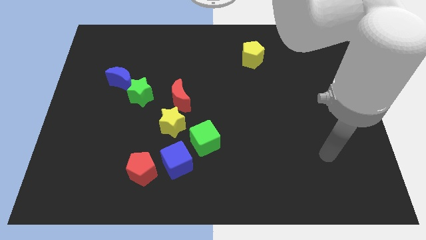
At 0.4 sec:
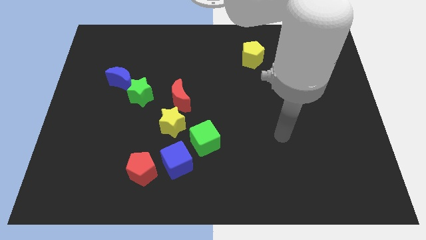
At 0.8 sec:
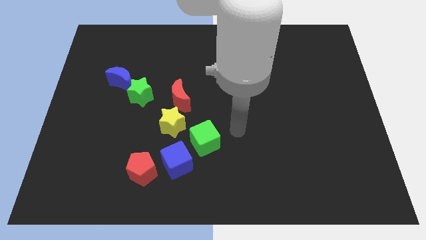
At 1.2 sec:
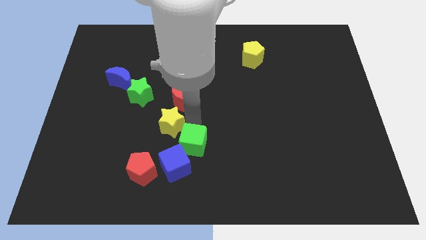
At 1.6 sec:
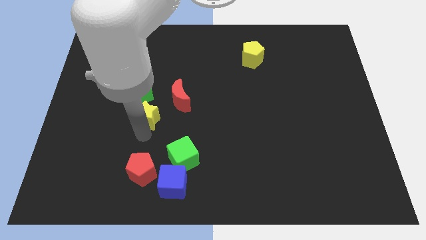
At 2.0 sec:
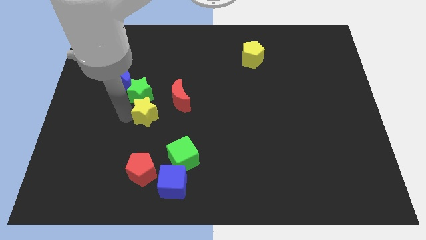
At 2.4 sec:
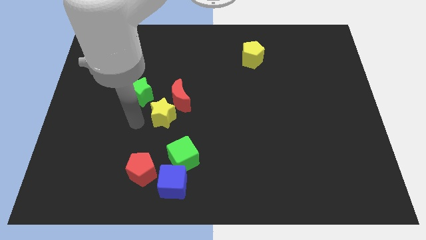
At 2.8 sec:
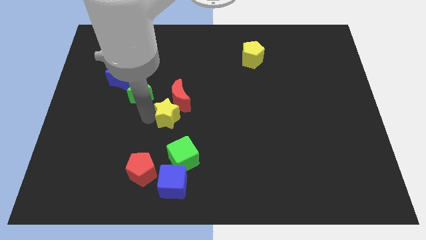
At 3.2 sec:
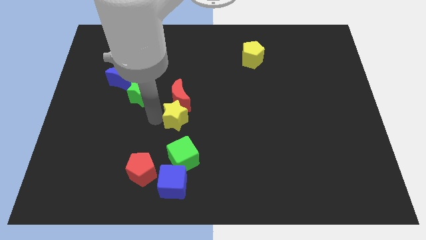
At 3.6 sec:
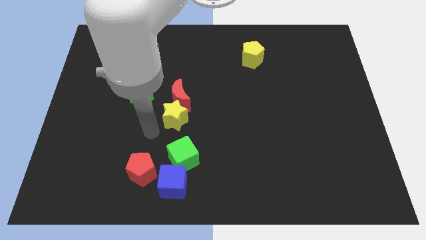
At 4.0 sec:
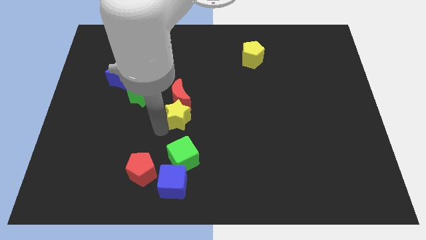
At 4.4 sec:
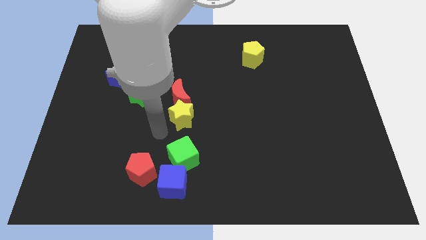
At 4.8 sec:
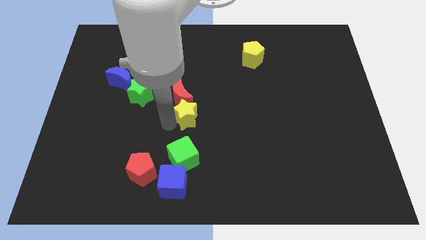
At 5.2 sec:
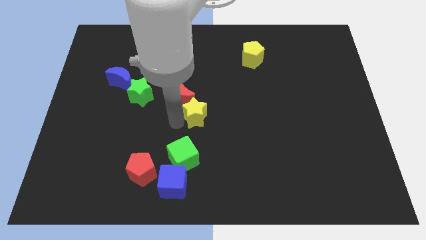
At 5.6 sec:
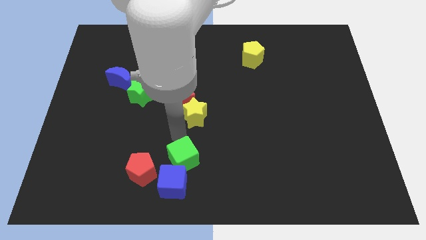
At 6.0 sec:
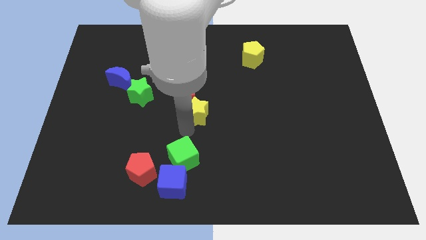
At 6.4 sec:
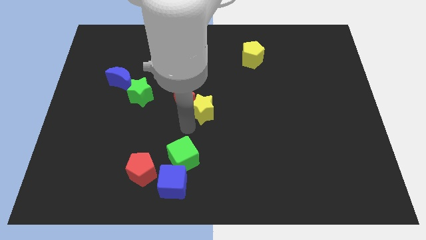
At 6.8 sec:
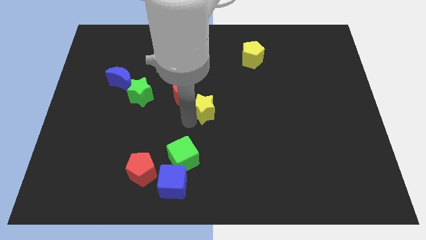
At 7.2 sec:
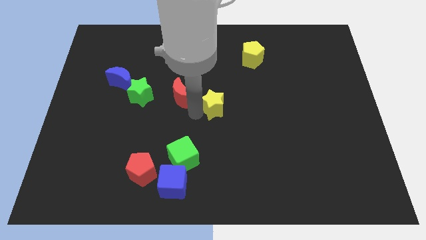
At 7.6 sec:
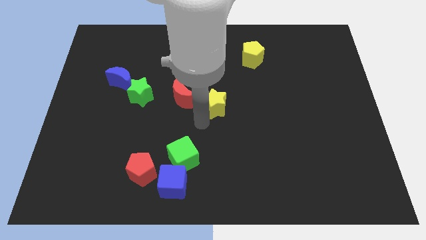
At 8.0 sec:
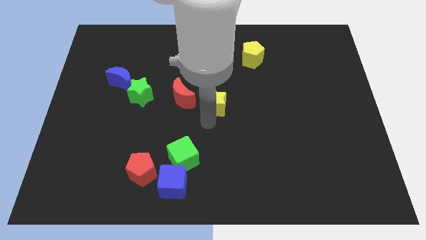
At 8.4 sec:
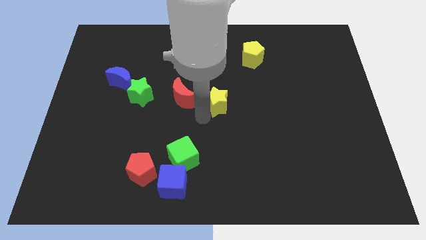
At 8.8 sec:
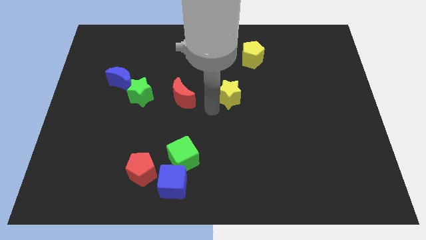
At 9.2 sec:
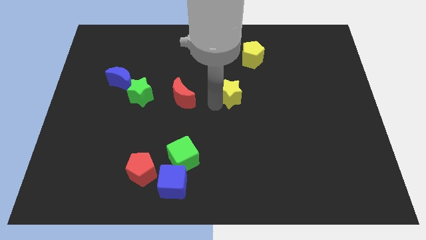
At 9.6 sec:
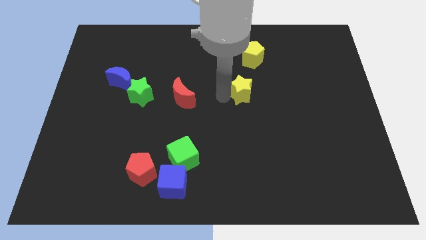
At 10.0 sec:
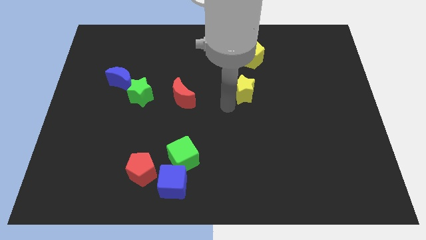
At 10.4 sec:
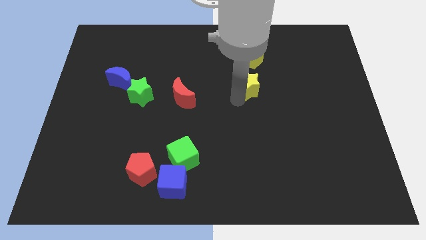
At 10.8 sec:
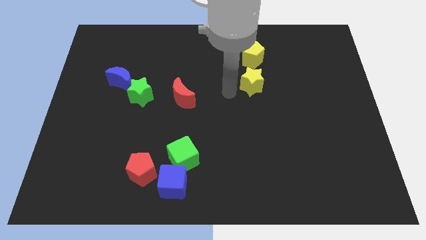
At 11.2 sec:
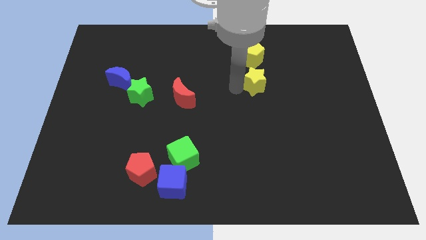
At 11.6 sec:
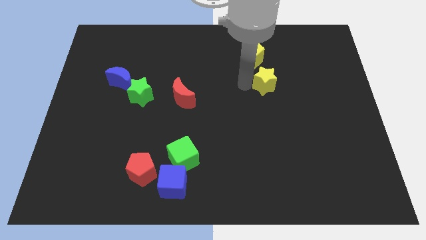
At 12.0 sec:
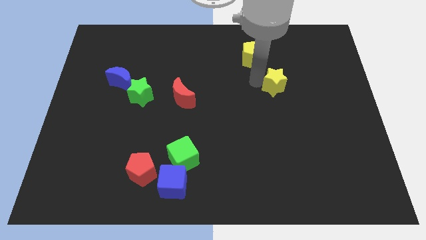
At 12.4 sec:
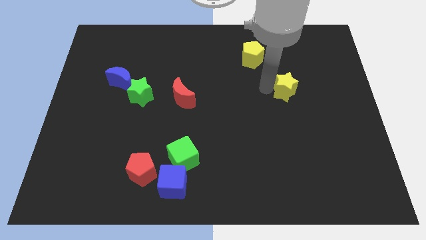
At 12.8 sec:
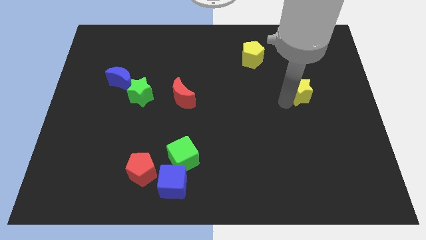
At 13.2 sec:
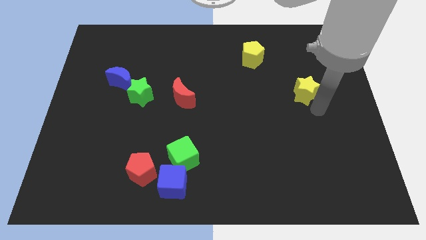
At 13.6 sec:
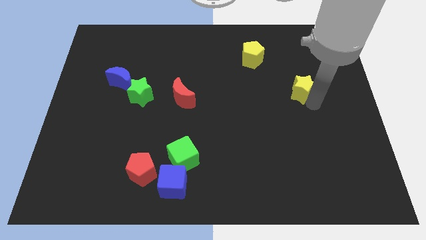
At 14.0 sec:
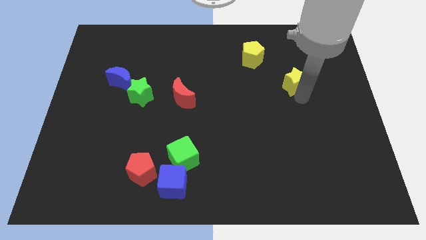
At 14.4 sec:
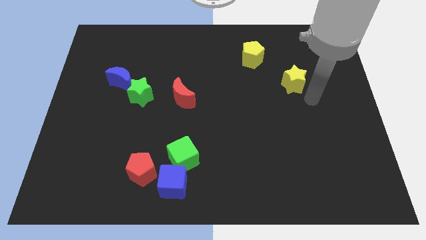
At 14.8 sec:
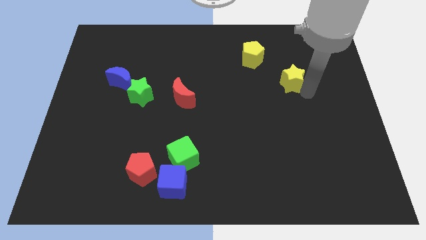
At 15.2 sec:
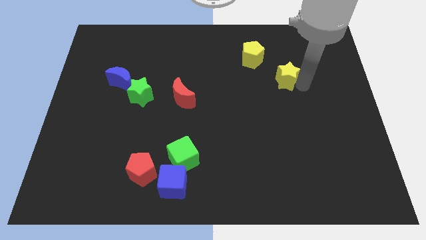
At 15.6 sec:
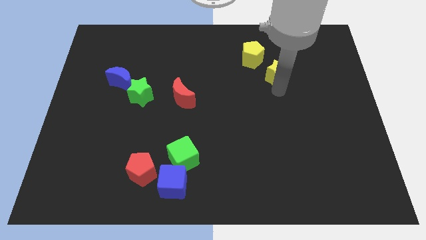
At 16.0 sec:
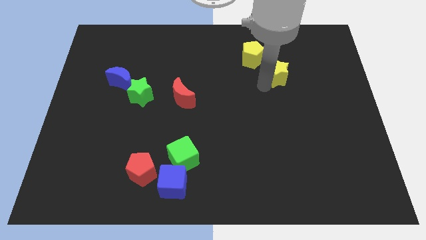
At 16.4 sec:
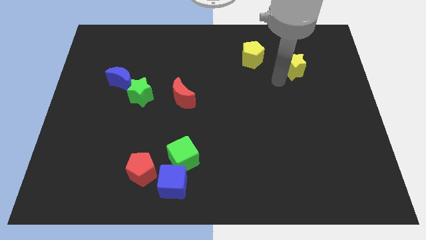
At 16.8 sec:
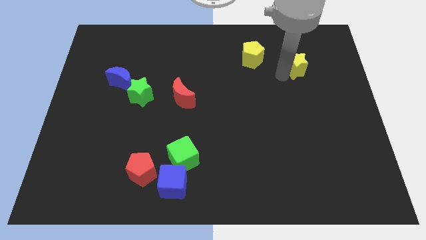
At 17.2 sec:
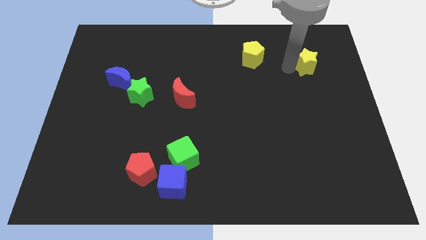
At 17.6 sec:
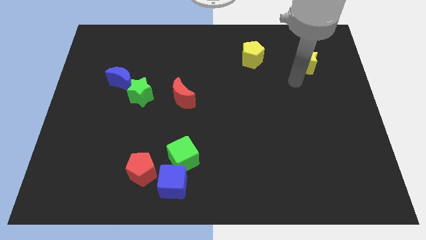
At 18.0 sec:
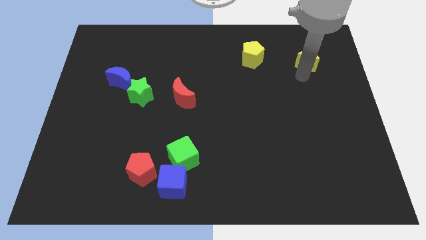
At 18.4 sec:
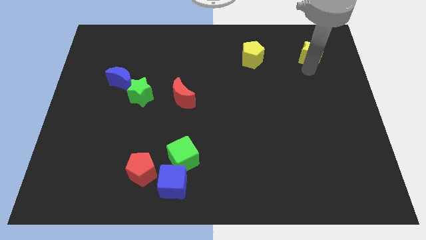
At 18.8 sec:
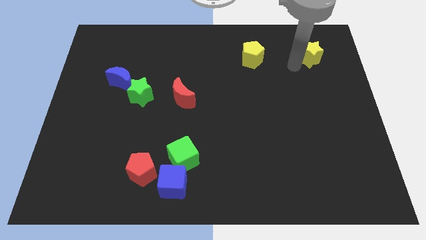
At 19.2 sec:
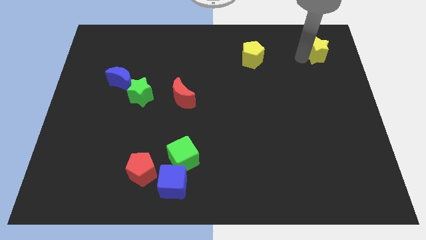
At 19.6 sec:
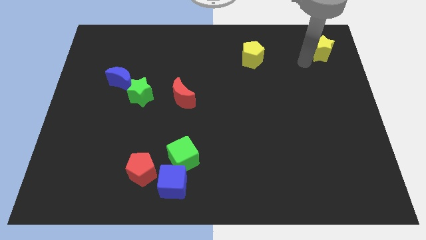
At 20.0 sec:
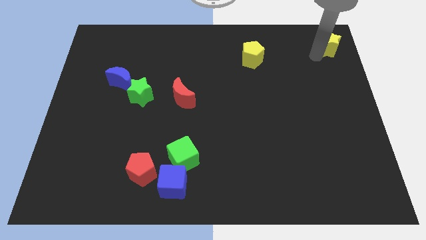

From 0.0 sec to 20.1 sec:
push the yellow star to the top right of the board

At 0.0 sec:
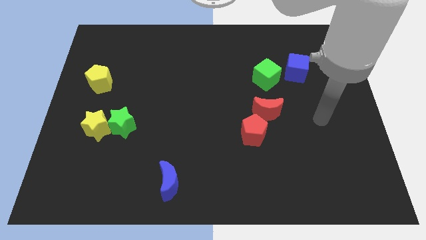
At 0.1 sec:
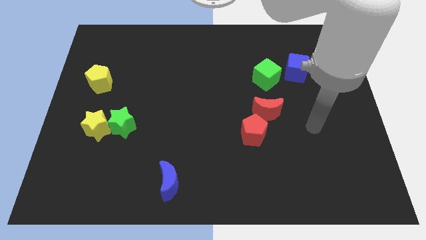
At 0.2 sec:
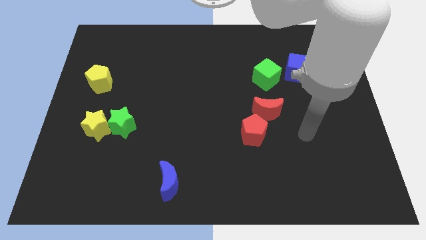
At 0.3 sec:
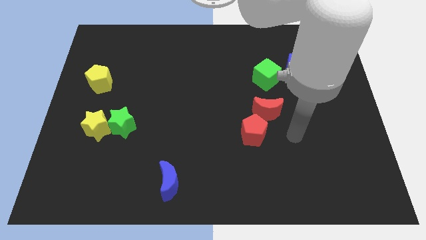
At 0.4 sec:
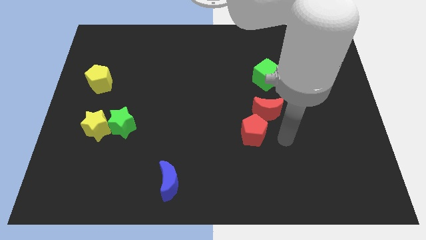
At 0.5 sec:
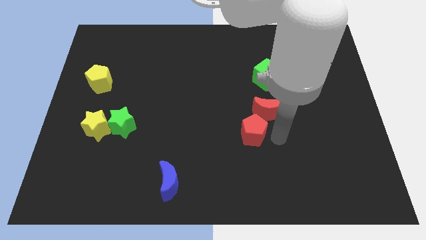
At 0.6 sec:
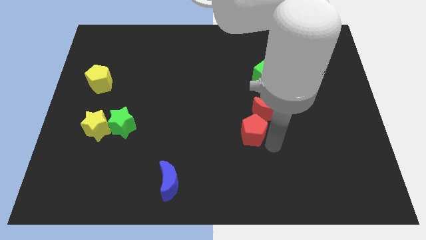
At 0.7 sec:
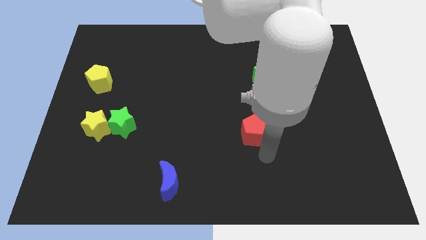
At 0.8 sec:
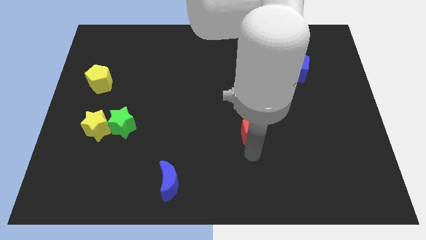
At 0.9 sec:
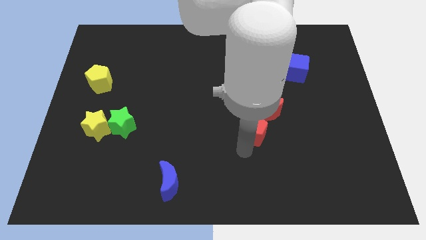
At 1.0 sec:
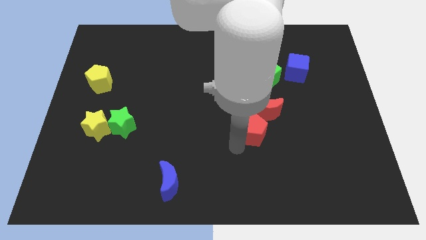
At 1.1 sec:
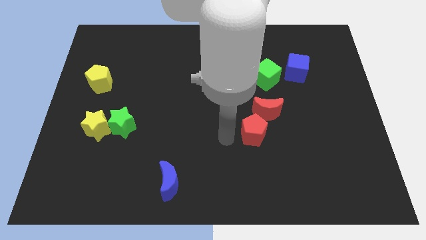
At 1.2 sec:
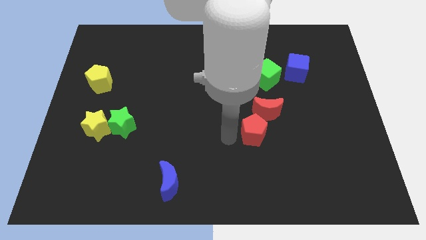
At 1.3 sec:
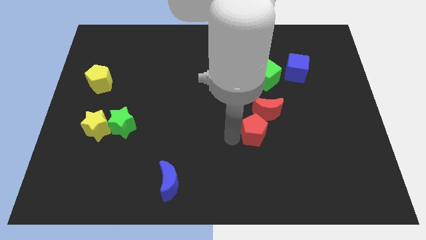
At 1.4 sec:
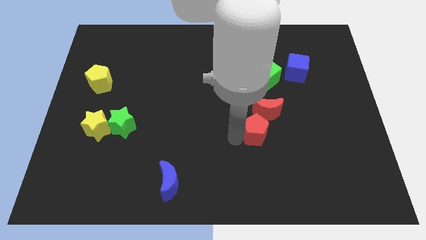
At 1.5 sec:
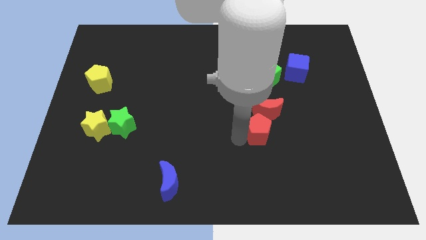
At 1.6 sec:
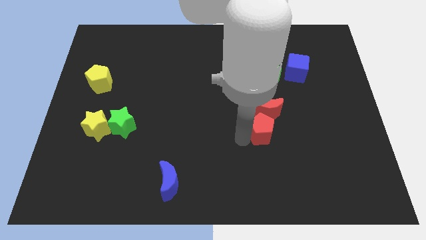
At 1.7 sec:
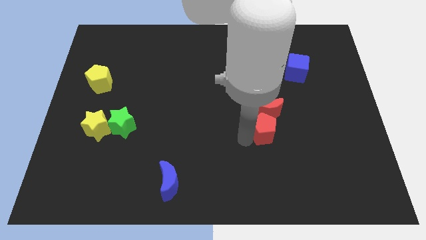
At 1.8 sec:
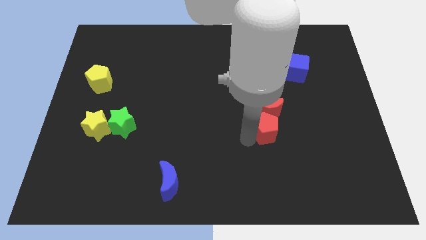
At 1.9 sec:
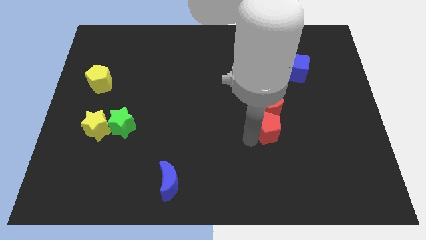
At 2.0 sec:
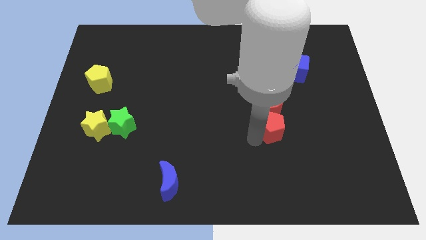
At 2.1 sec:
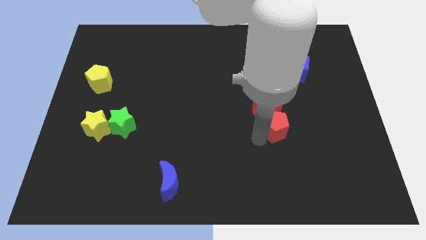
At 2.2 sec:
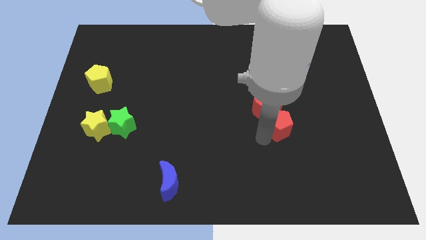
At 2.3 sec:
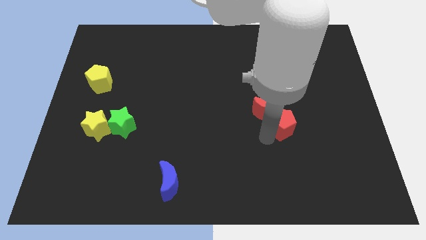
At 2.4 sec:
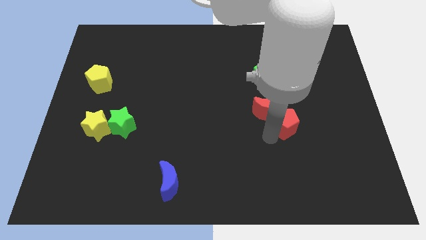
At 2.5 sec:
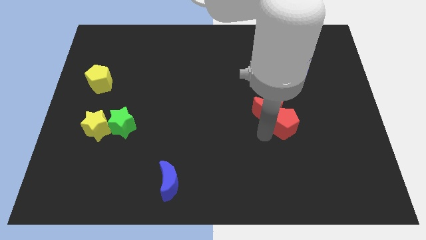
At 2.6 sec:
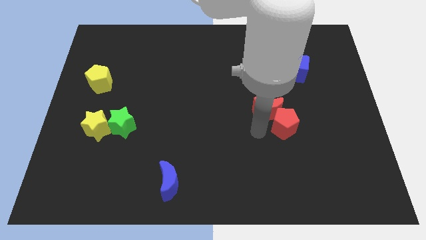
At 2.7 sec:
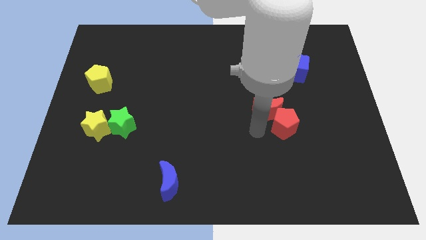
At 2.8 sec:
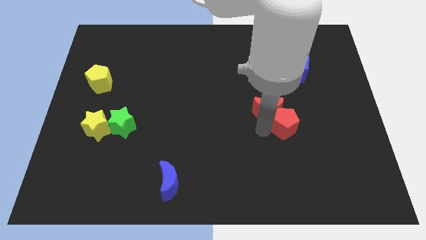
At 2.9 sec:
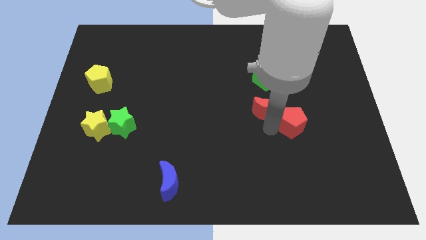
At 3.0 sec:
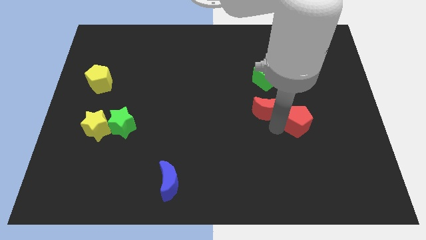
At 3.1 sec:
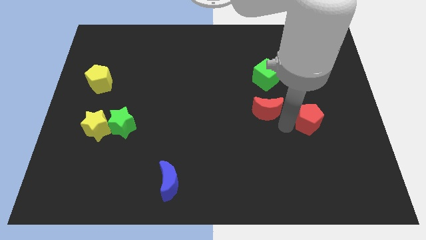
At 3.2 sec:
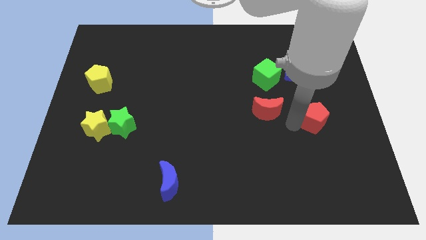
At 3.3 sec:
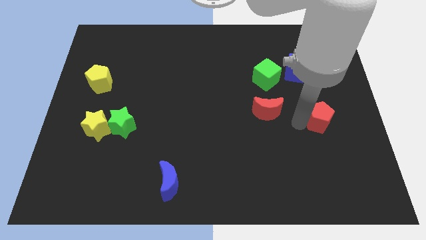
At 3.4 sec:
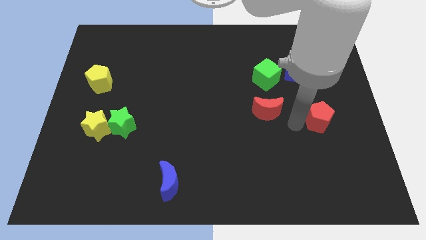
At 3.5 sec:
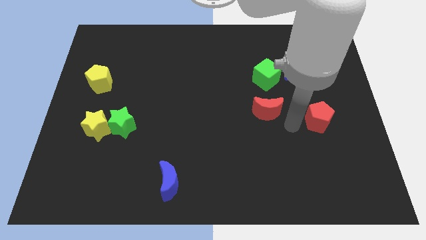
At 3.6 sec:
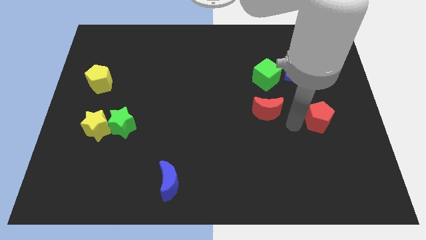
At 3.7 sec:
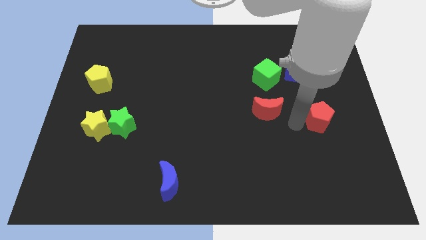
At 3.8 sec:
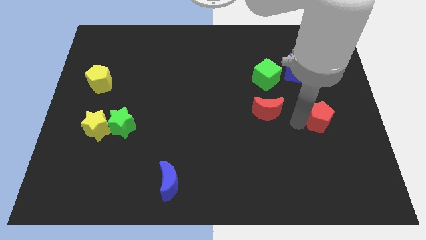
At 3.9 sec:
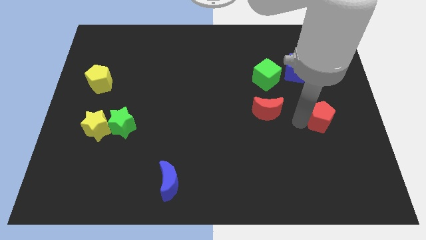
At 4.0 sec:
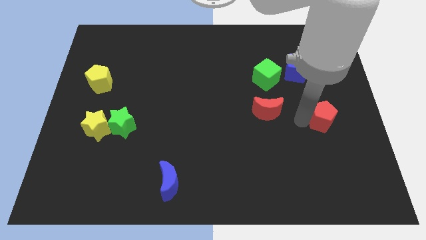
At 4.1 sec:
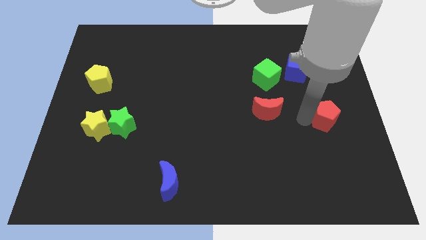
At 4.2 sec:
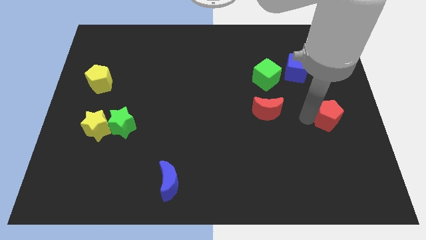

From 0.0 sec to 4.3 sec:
put the red pentagon to the right side
